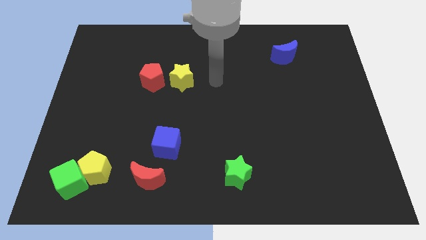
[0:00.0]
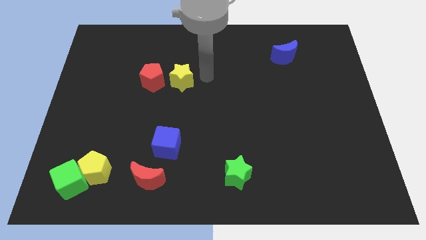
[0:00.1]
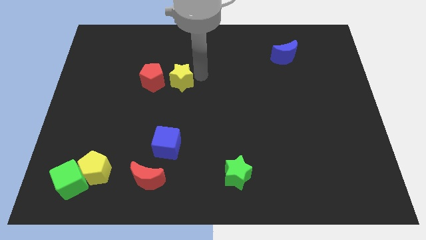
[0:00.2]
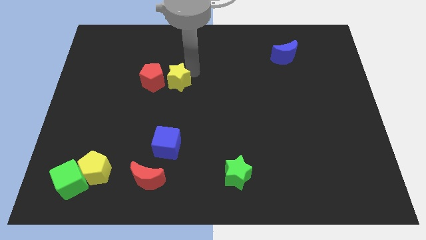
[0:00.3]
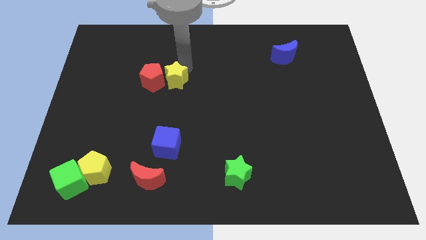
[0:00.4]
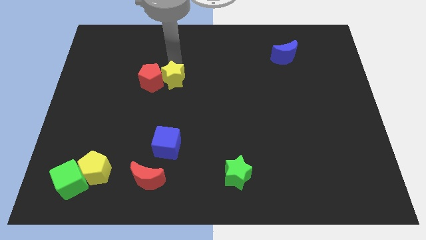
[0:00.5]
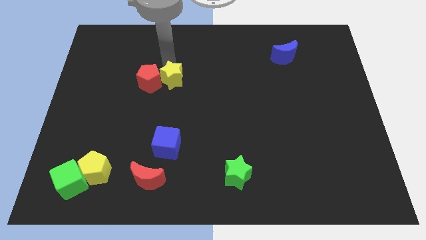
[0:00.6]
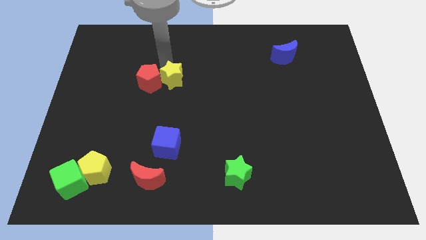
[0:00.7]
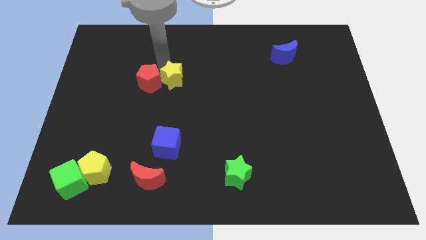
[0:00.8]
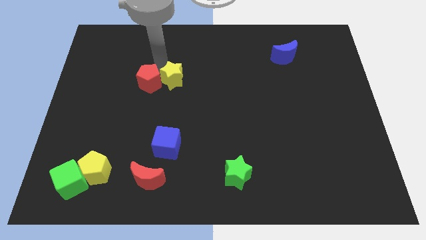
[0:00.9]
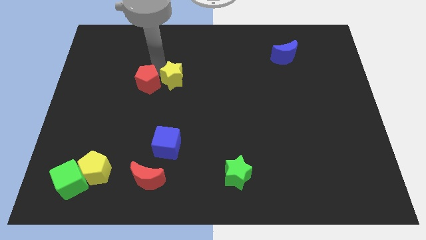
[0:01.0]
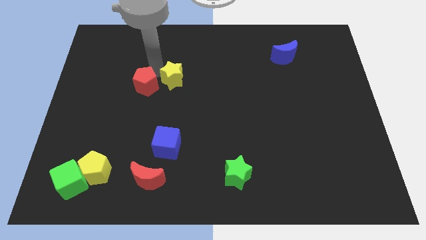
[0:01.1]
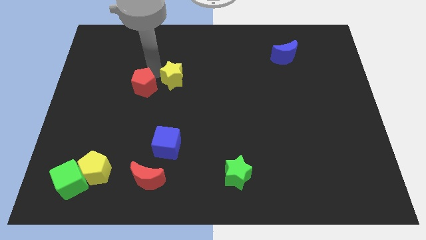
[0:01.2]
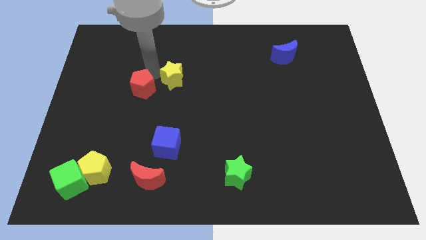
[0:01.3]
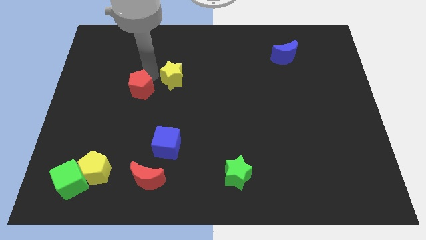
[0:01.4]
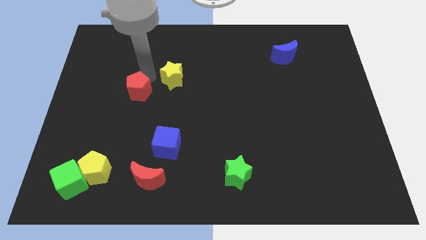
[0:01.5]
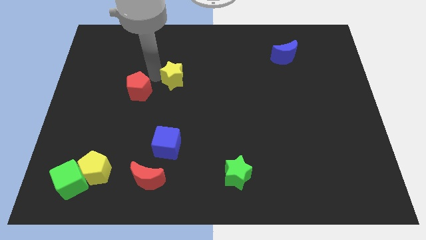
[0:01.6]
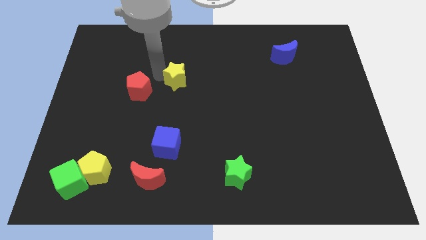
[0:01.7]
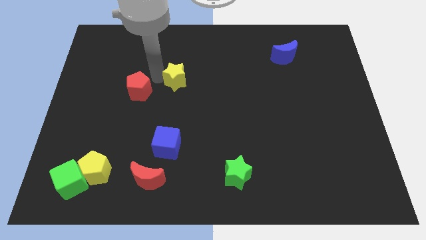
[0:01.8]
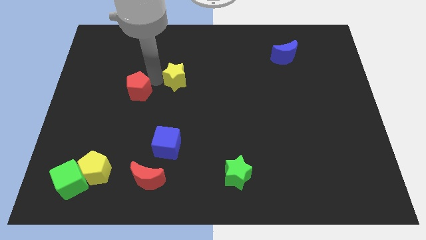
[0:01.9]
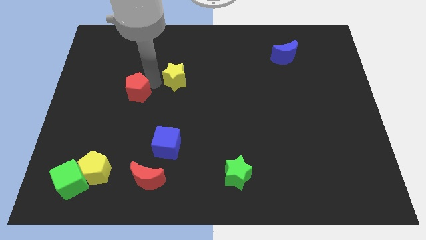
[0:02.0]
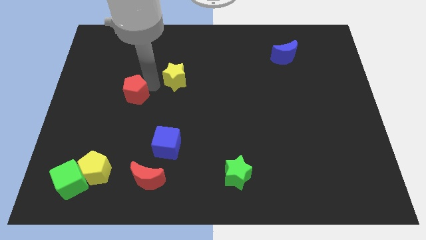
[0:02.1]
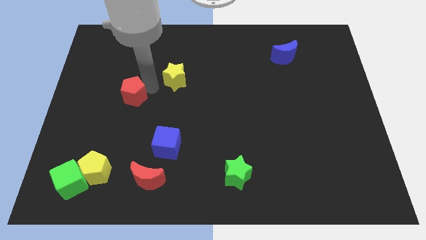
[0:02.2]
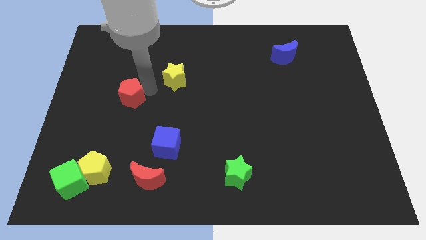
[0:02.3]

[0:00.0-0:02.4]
push the red pentagon a little diagonally down and to the left

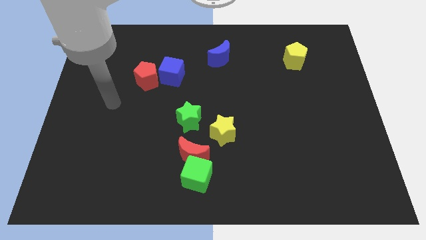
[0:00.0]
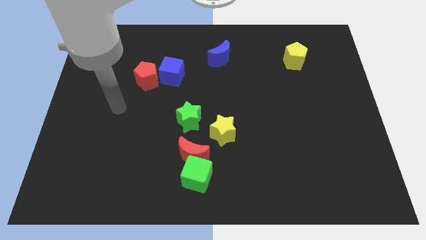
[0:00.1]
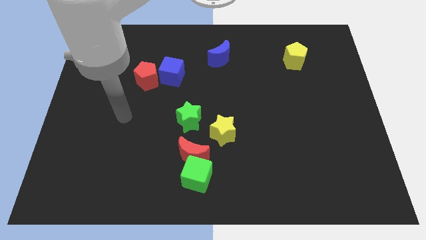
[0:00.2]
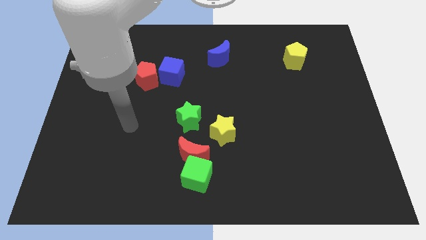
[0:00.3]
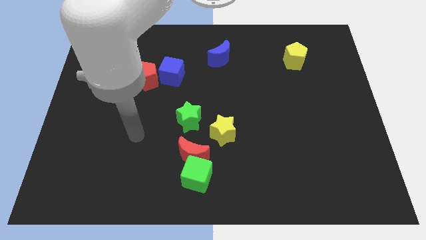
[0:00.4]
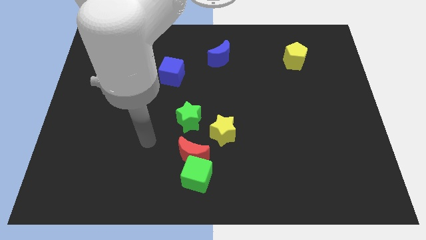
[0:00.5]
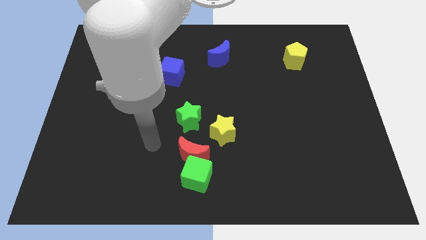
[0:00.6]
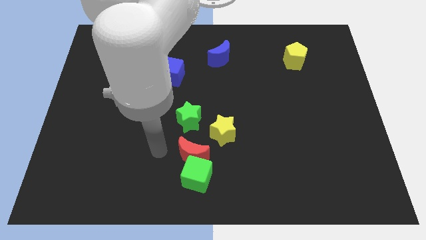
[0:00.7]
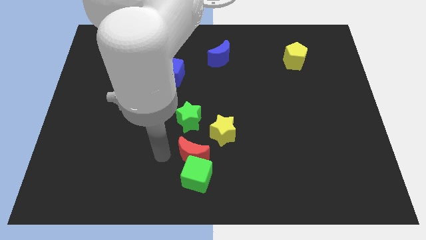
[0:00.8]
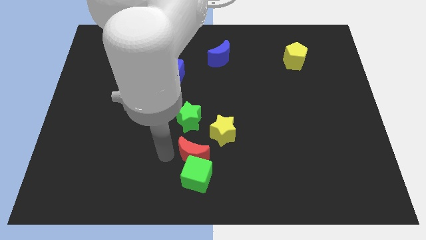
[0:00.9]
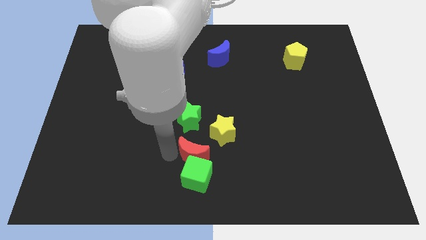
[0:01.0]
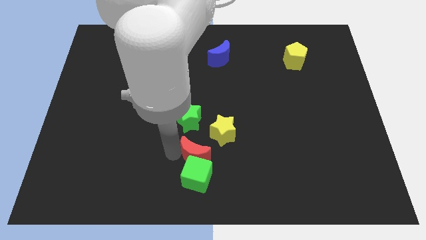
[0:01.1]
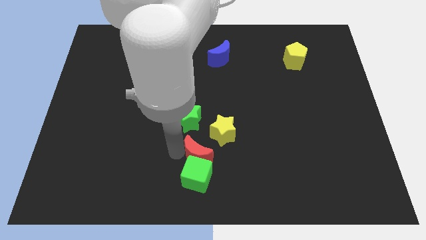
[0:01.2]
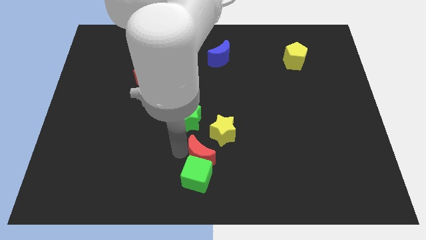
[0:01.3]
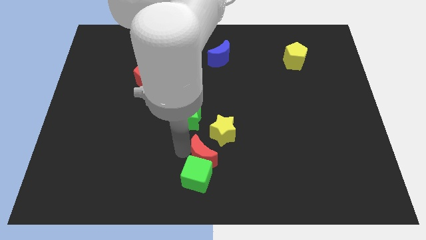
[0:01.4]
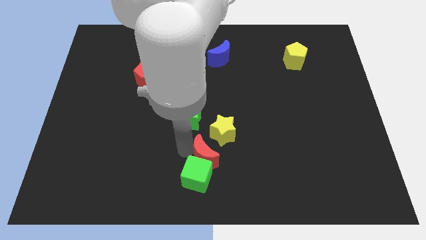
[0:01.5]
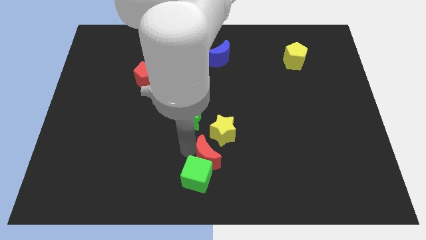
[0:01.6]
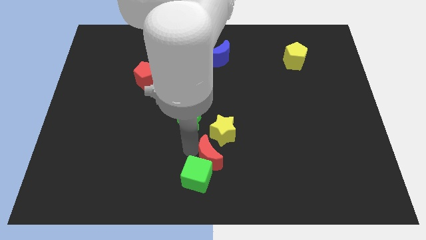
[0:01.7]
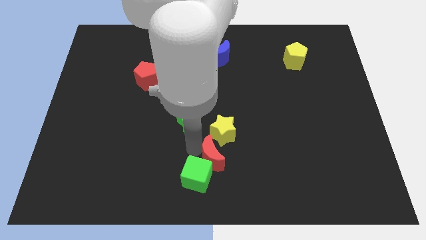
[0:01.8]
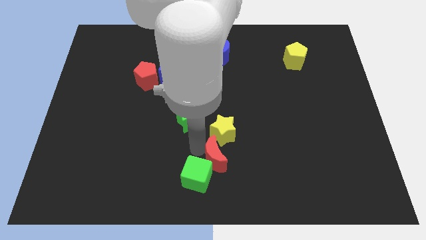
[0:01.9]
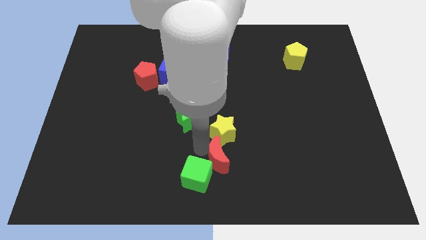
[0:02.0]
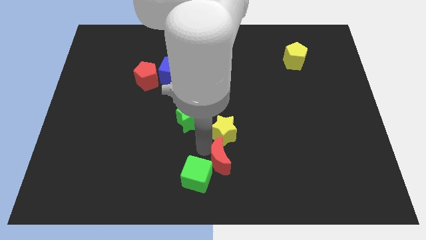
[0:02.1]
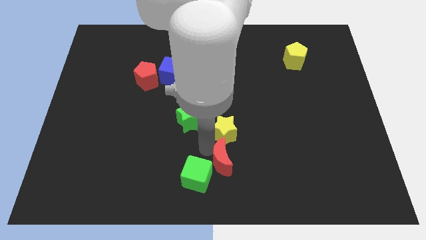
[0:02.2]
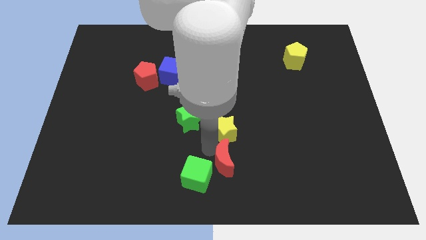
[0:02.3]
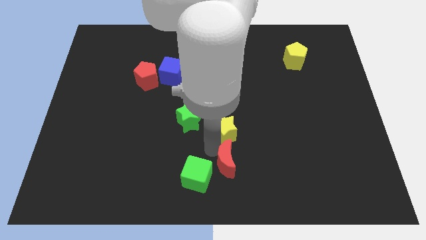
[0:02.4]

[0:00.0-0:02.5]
slightly push the red moon right

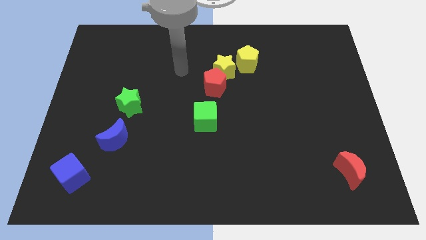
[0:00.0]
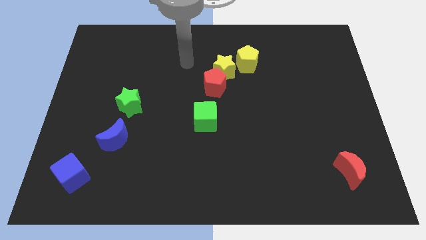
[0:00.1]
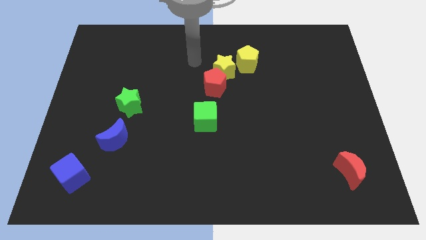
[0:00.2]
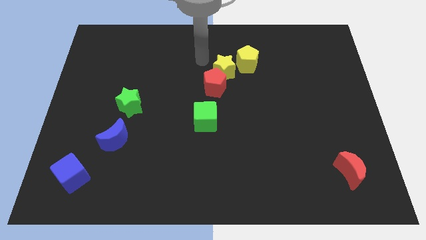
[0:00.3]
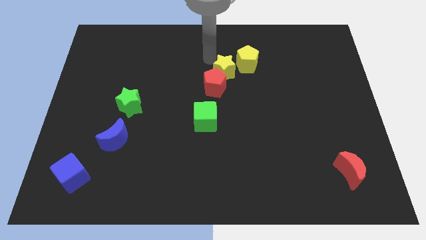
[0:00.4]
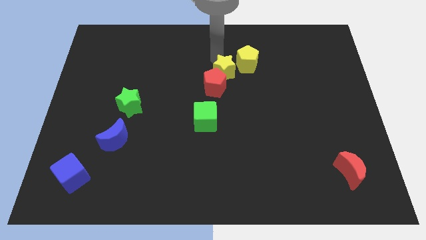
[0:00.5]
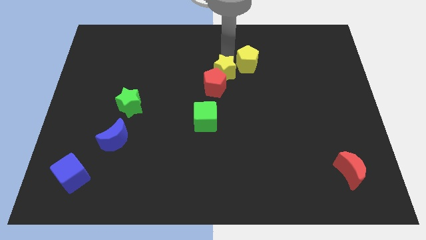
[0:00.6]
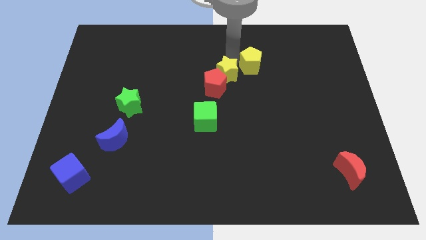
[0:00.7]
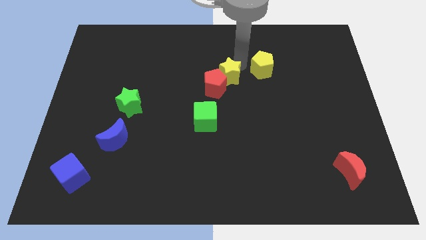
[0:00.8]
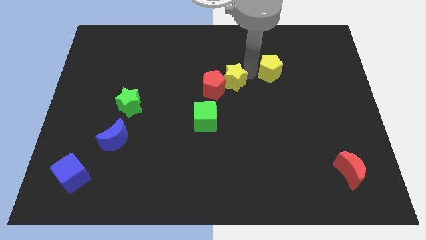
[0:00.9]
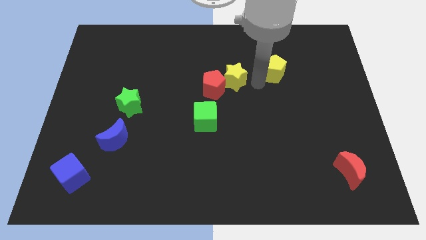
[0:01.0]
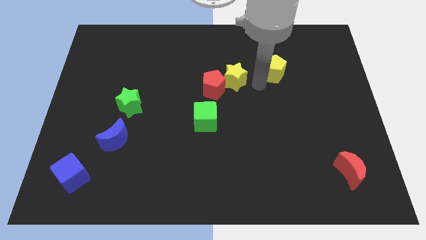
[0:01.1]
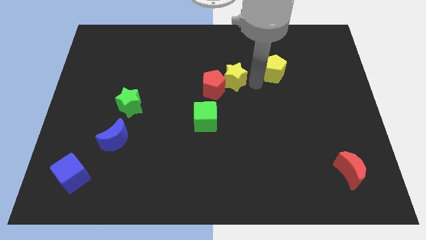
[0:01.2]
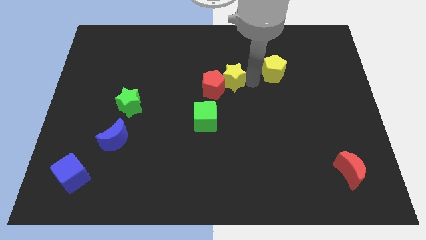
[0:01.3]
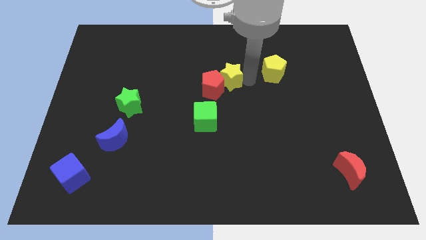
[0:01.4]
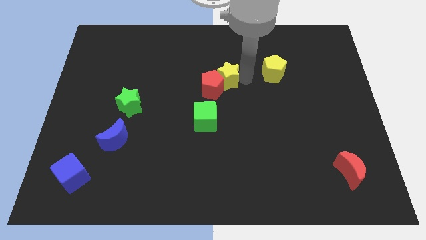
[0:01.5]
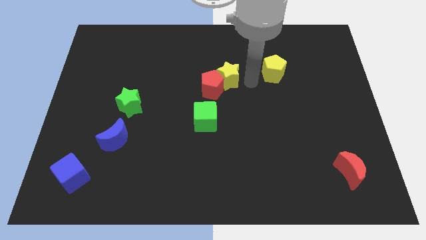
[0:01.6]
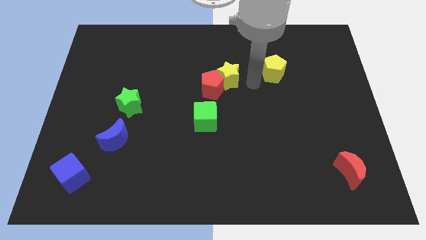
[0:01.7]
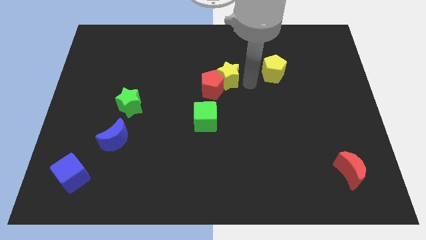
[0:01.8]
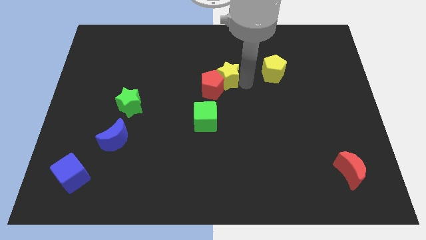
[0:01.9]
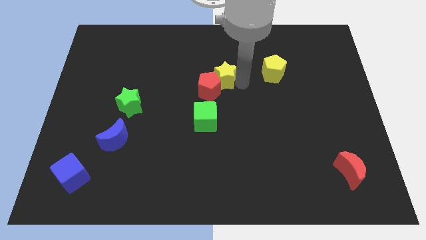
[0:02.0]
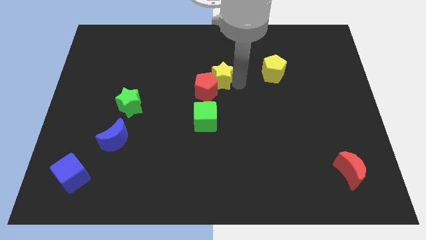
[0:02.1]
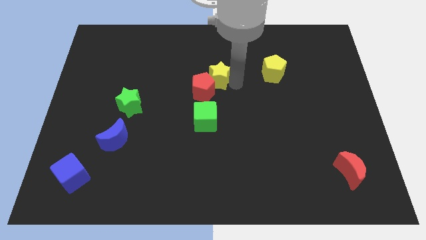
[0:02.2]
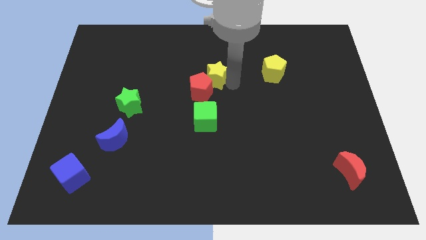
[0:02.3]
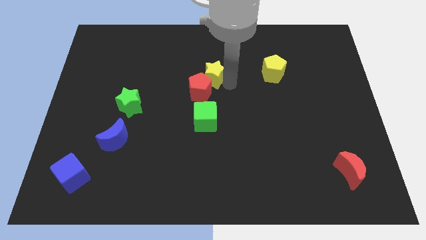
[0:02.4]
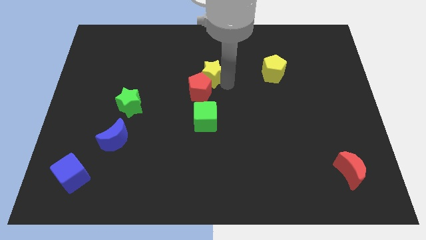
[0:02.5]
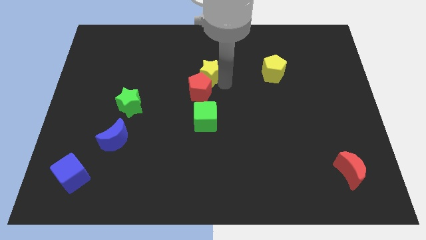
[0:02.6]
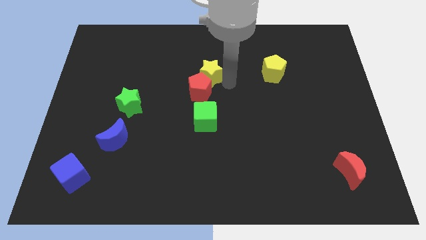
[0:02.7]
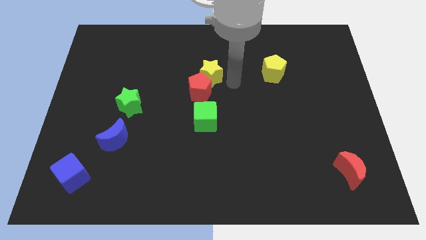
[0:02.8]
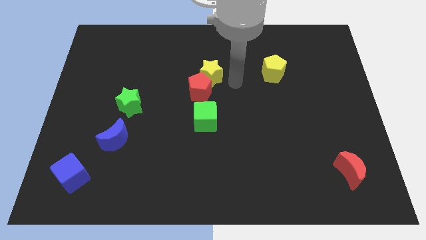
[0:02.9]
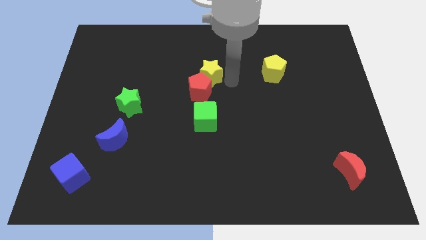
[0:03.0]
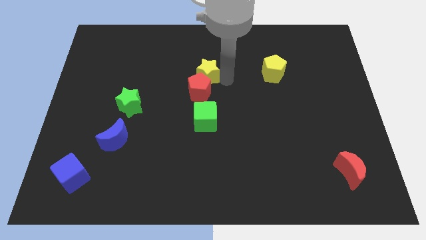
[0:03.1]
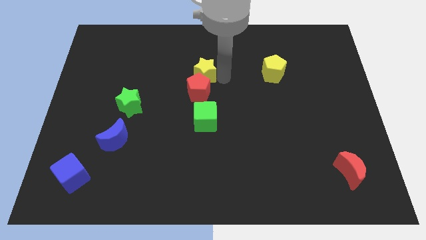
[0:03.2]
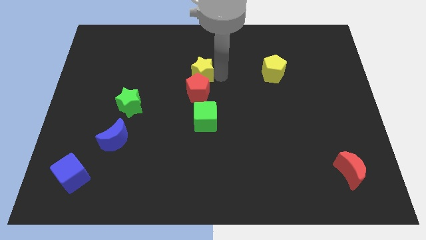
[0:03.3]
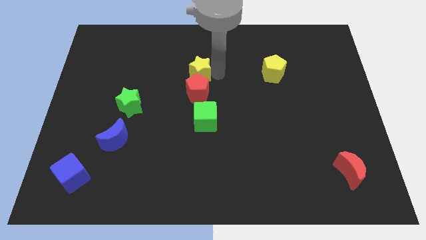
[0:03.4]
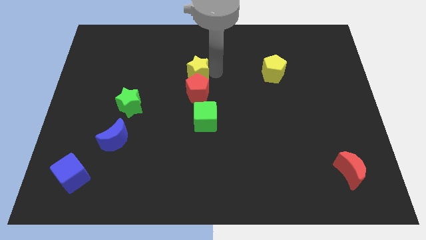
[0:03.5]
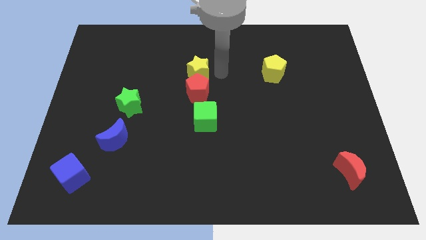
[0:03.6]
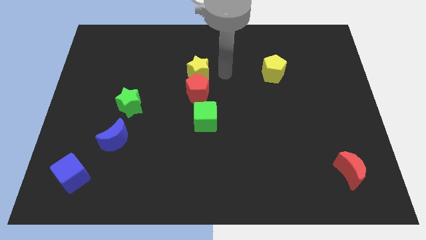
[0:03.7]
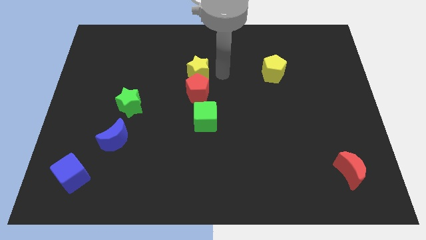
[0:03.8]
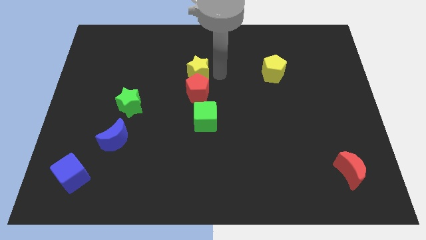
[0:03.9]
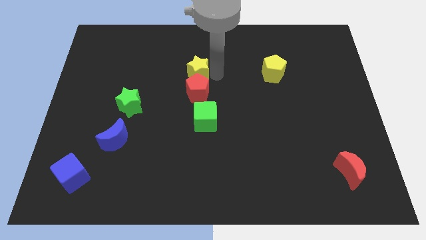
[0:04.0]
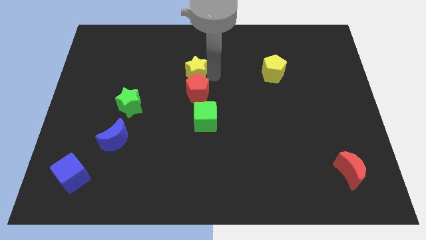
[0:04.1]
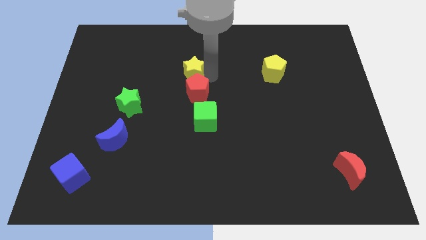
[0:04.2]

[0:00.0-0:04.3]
slide the yellow star left a little bit
